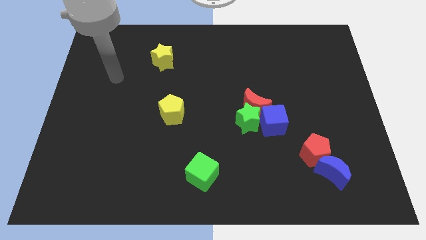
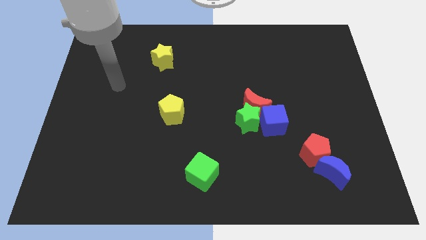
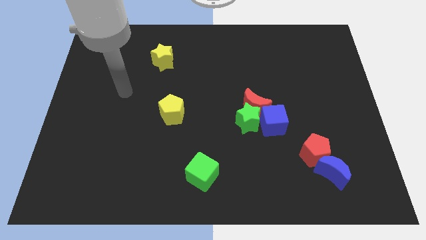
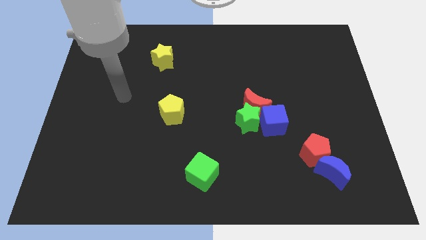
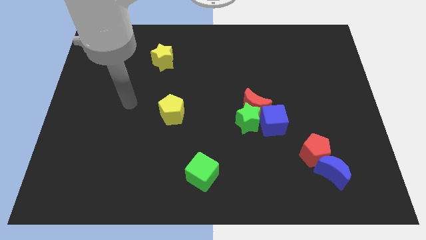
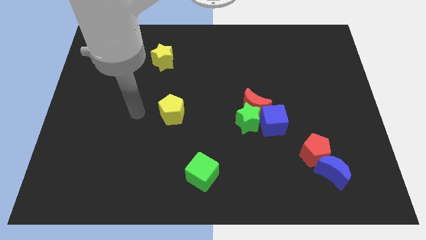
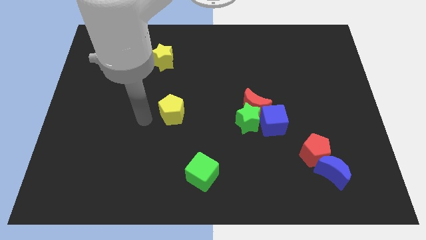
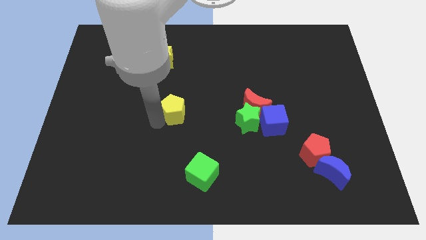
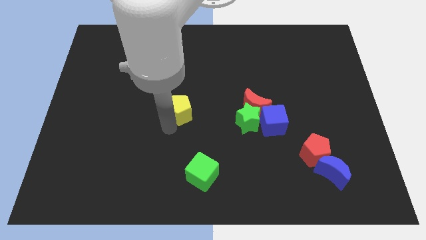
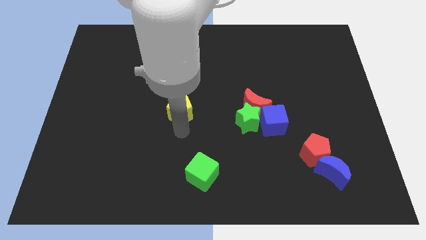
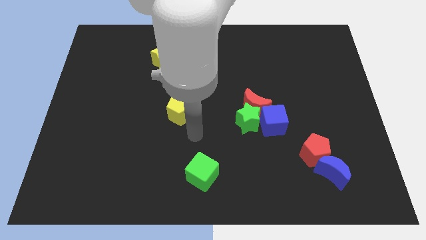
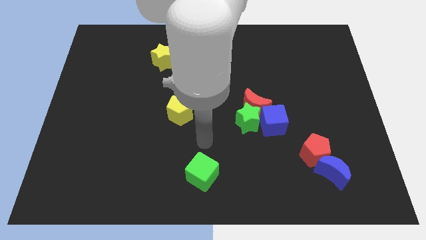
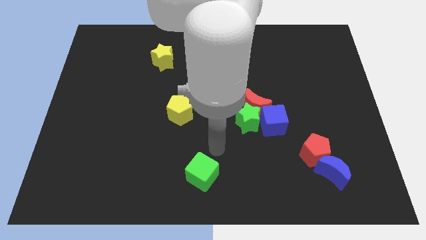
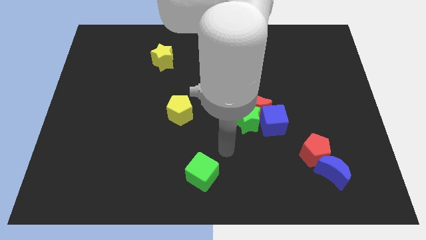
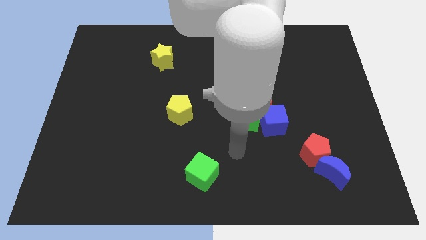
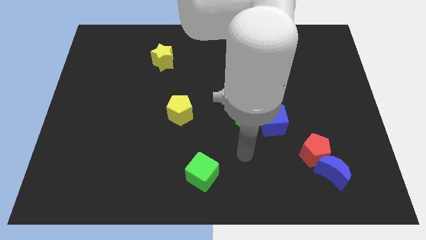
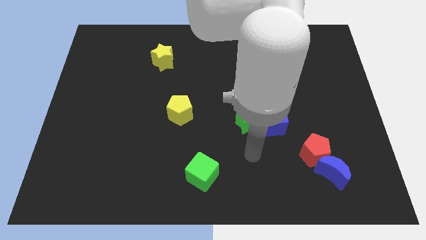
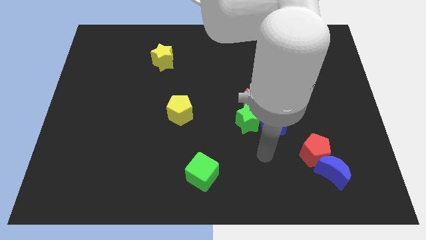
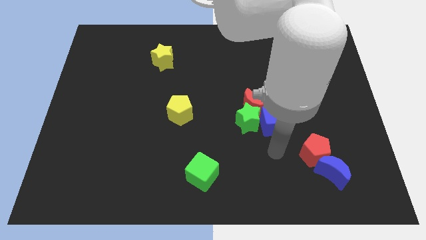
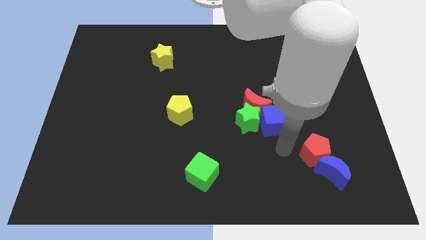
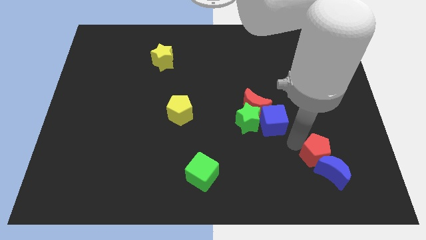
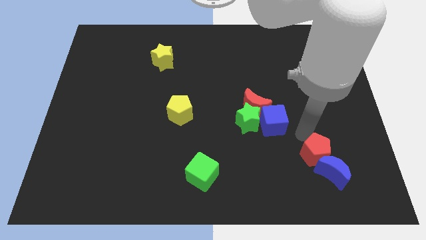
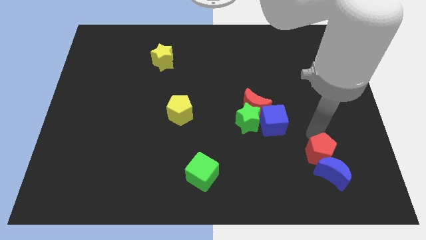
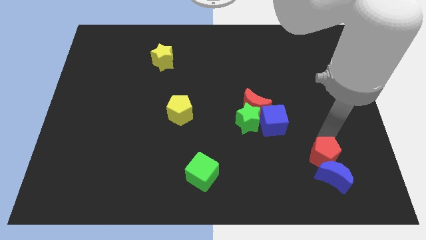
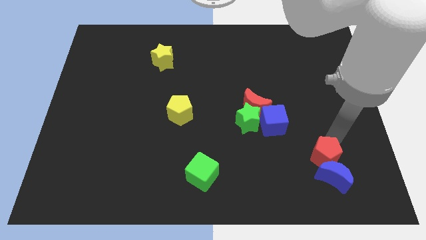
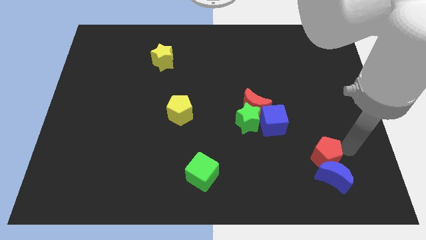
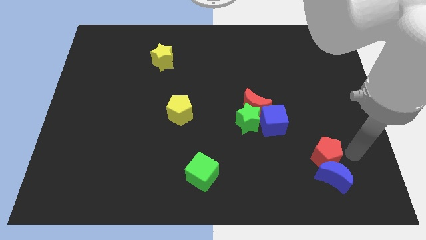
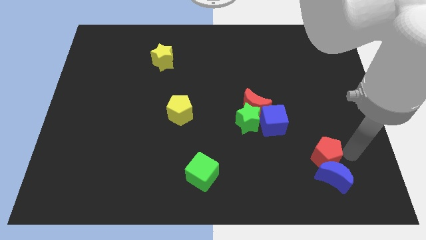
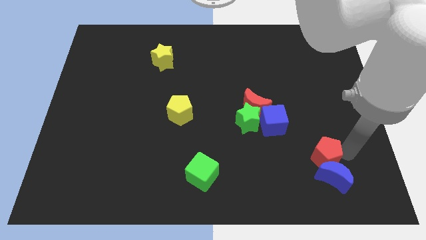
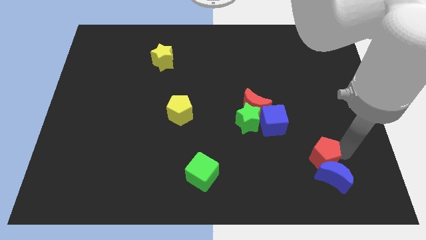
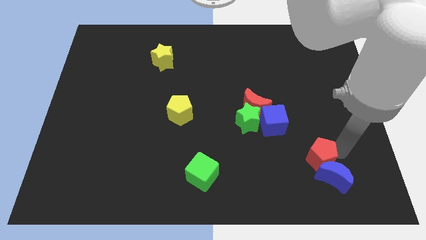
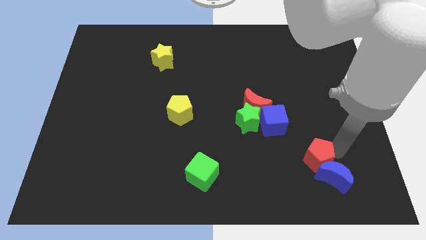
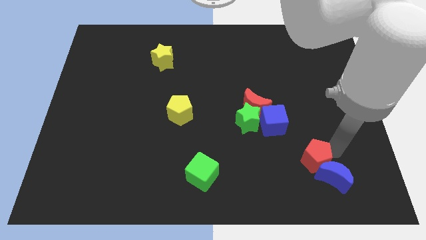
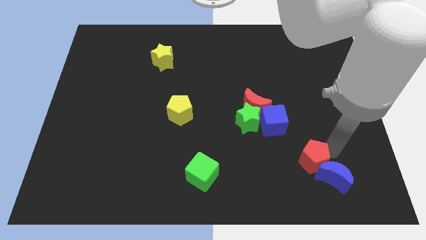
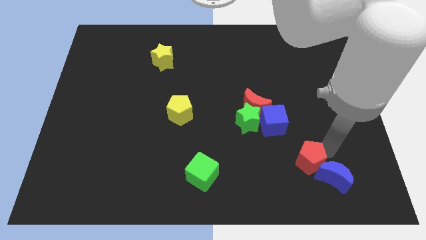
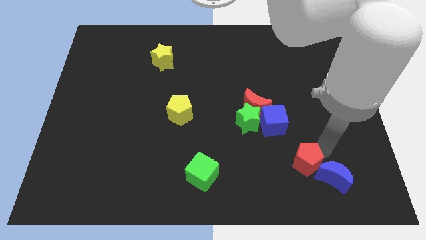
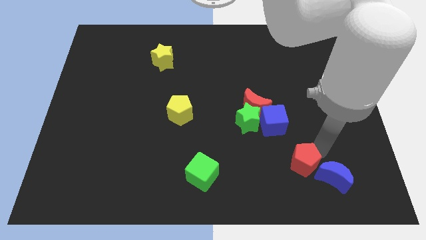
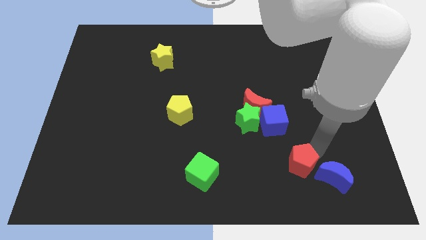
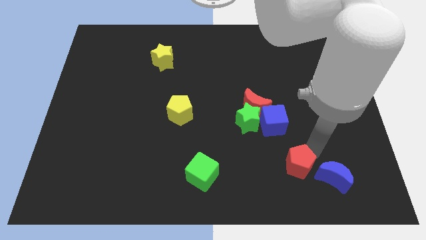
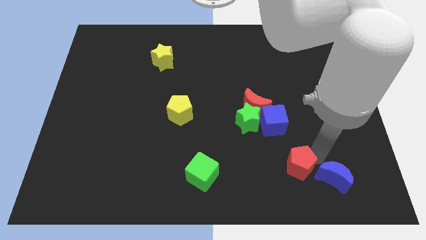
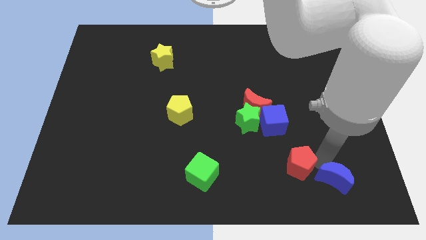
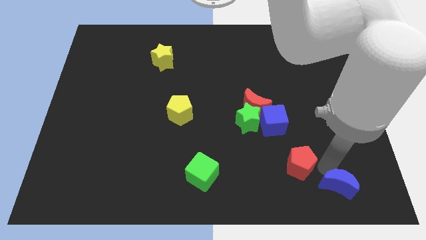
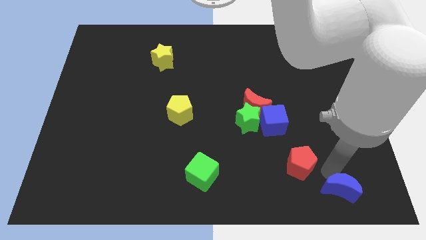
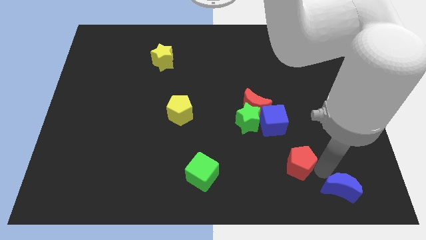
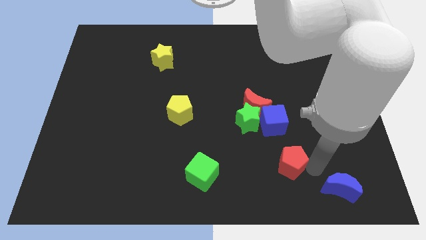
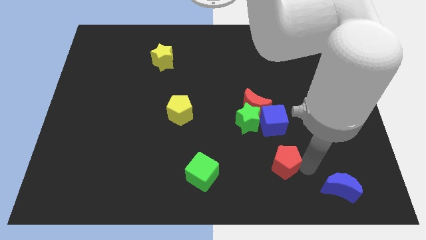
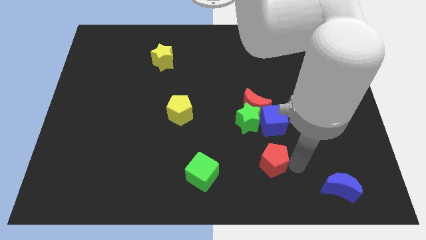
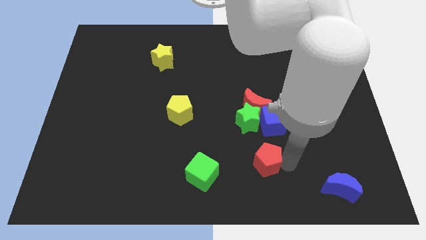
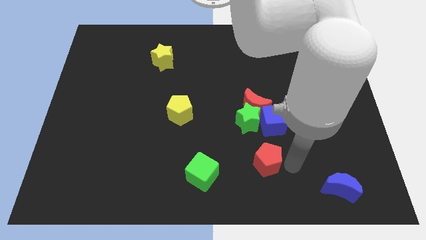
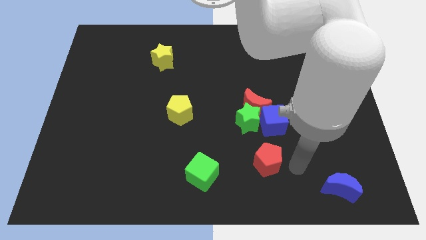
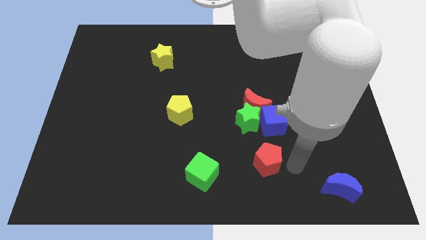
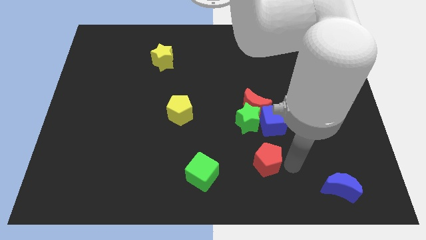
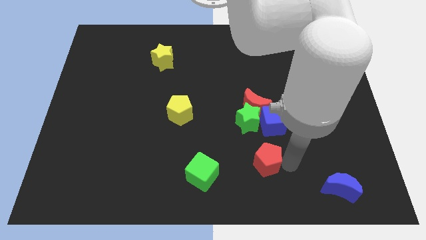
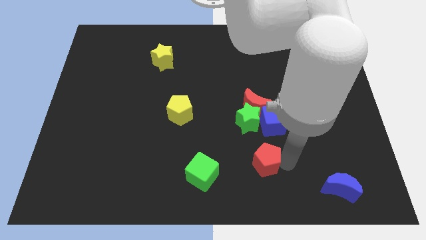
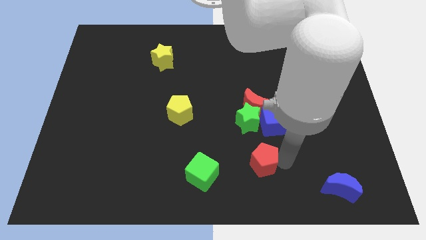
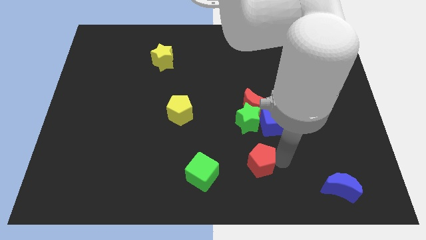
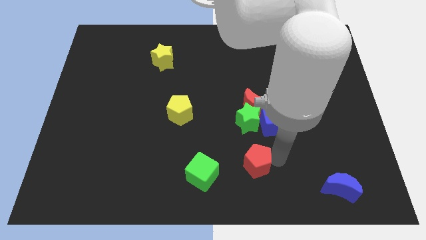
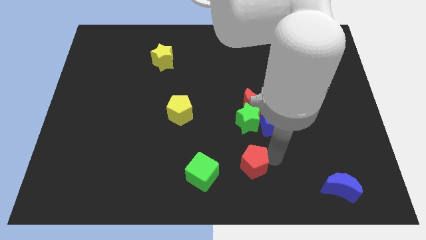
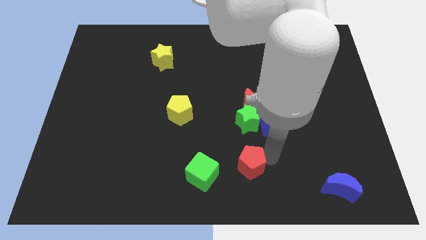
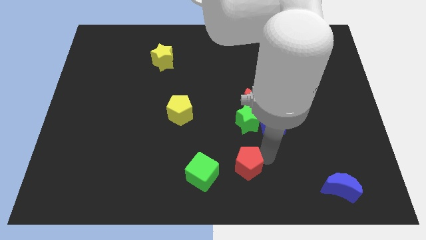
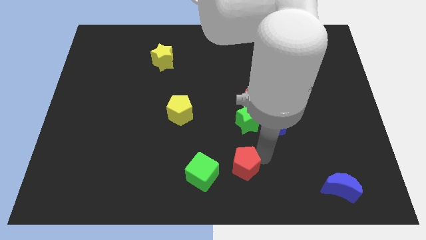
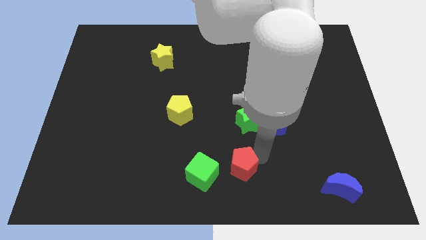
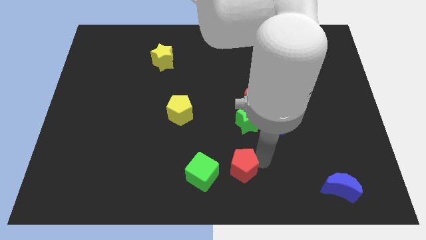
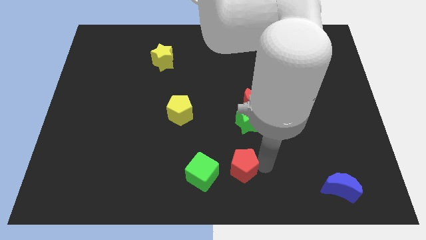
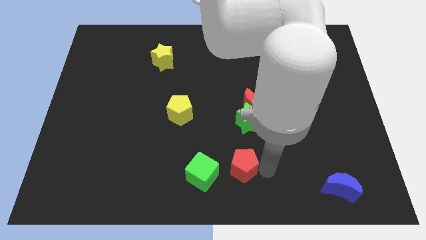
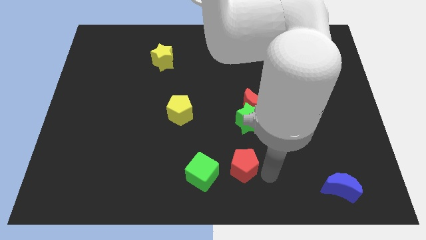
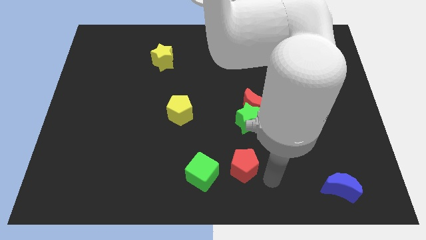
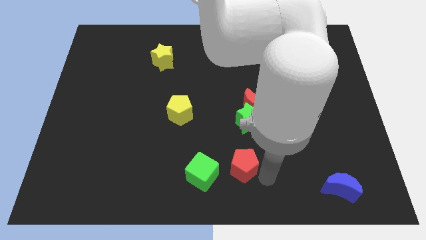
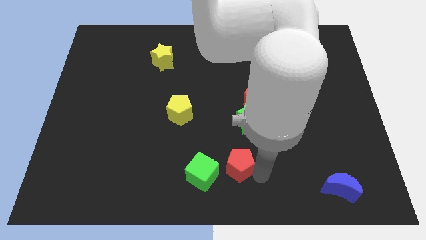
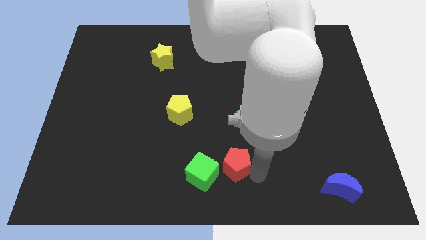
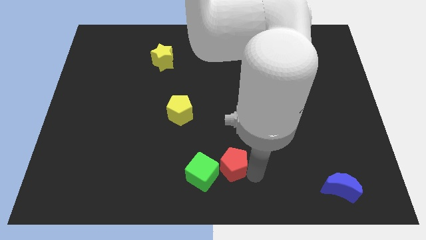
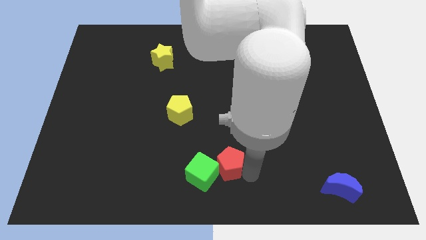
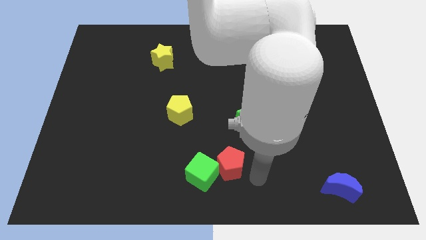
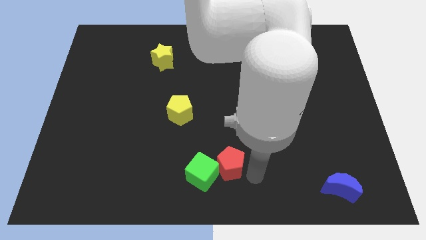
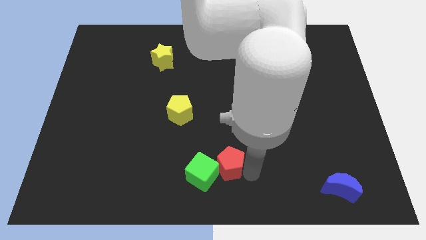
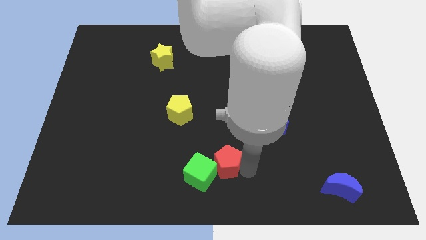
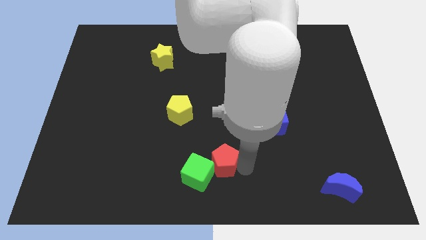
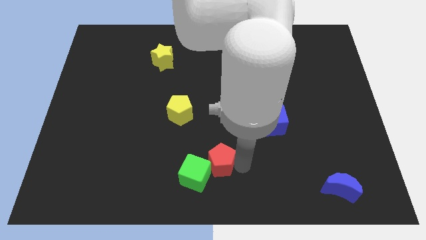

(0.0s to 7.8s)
push the red pentagon to the left
